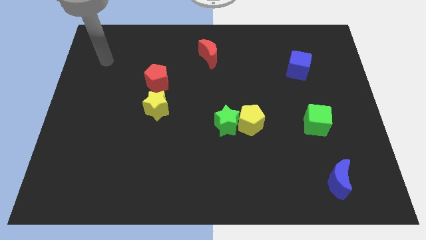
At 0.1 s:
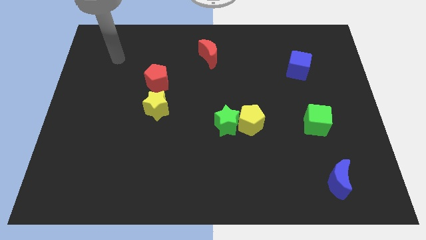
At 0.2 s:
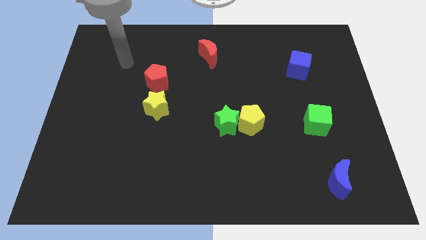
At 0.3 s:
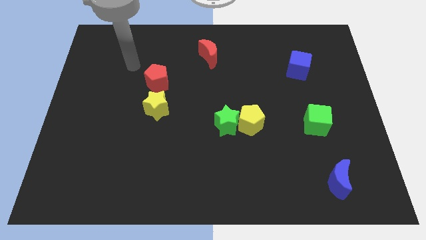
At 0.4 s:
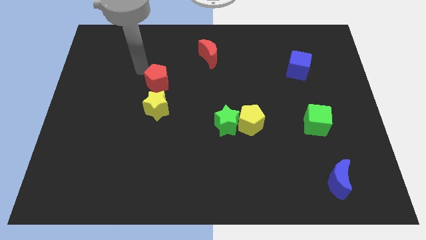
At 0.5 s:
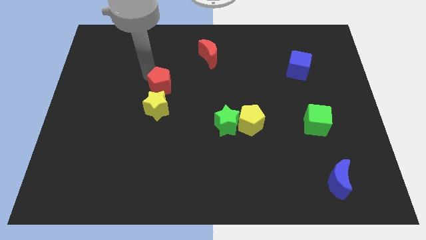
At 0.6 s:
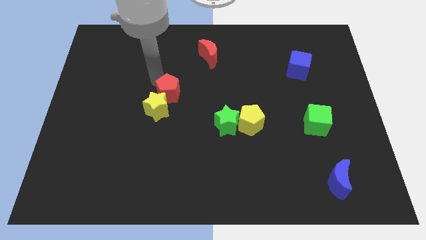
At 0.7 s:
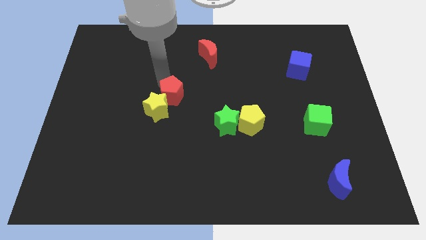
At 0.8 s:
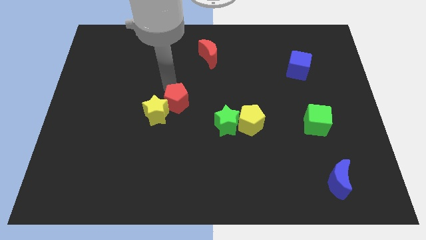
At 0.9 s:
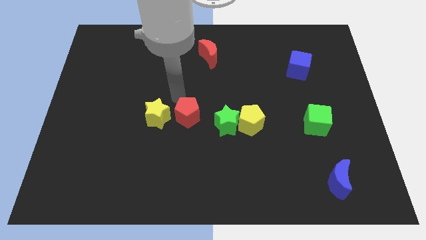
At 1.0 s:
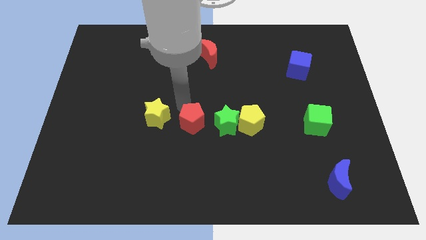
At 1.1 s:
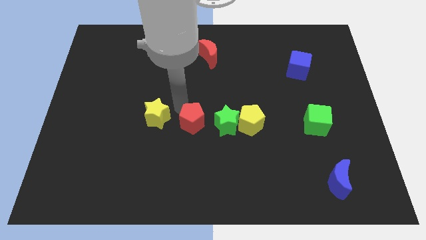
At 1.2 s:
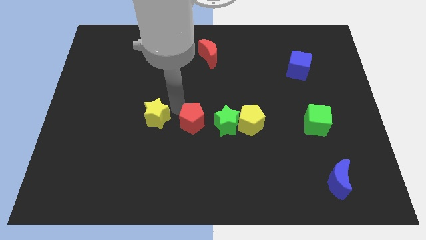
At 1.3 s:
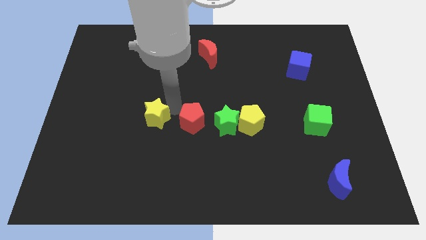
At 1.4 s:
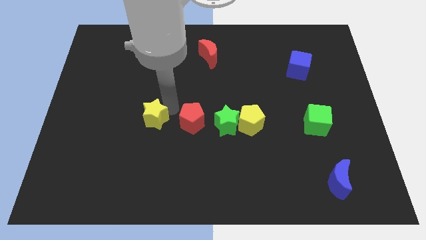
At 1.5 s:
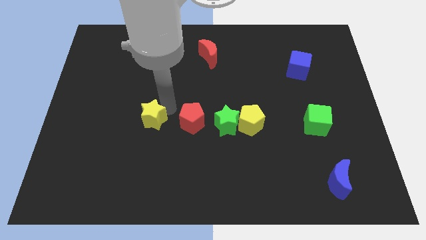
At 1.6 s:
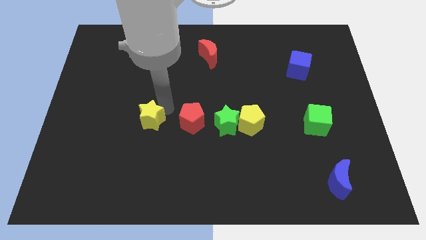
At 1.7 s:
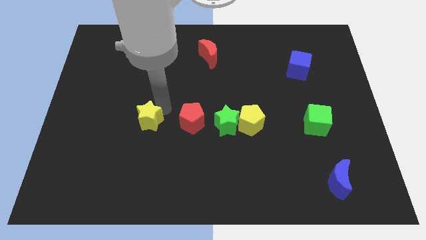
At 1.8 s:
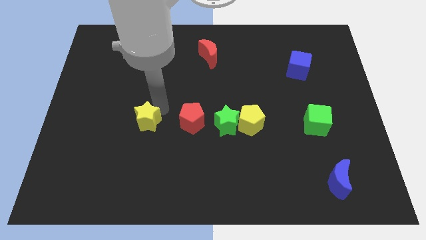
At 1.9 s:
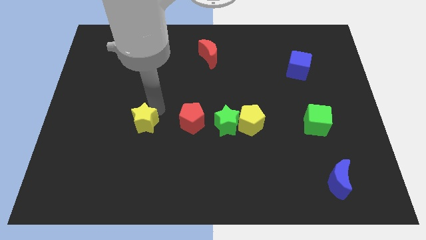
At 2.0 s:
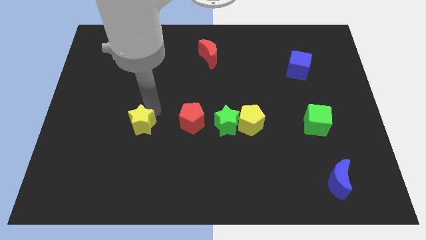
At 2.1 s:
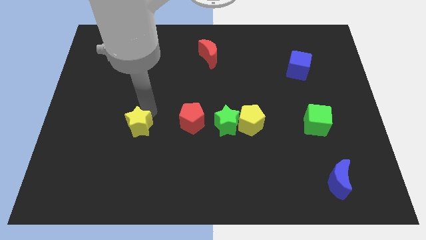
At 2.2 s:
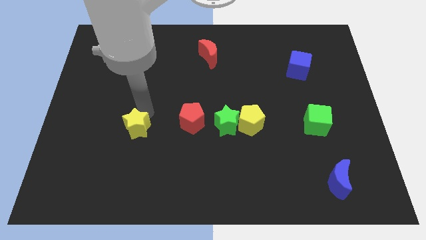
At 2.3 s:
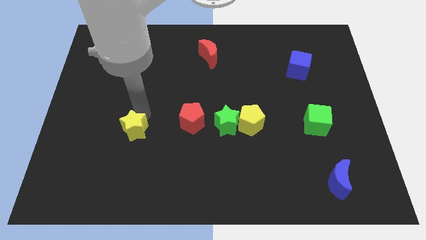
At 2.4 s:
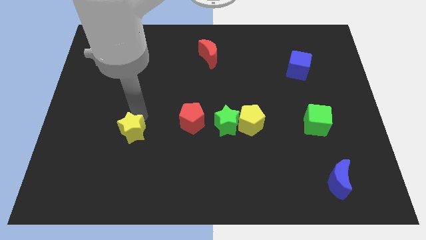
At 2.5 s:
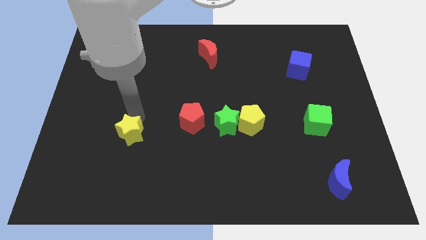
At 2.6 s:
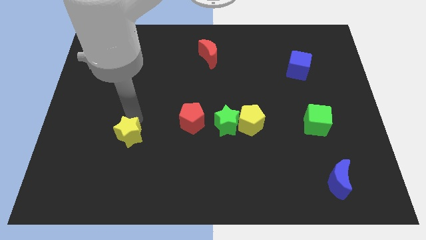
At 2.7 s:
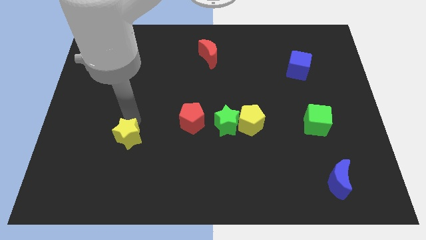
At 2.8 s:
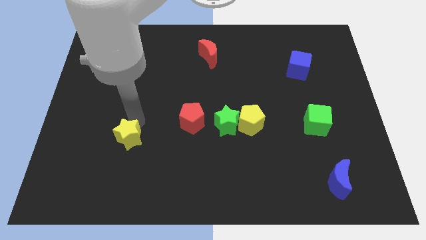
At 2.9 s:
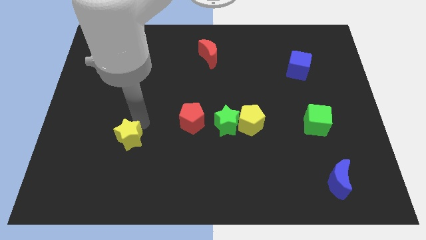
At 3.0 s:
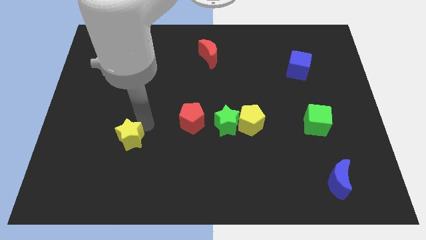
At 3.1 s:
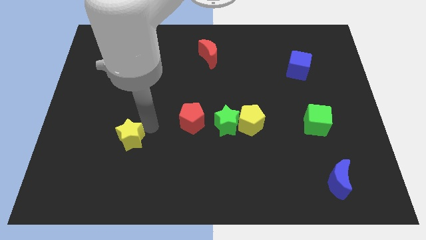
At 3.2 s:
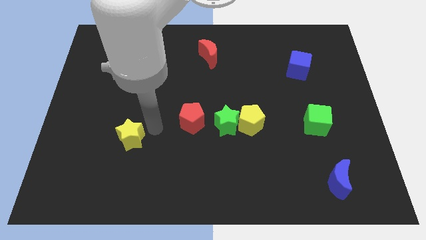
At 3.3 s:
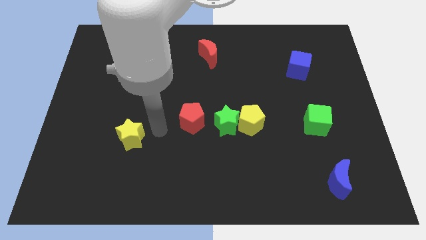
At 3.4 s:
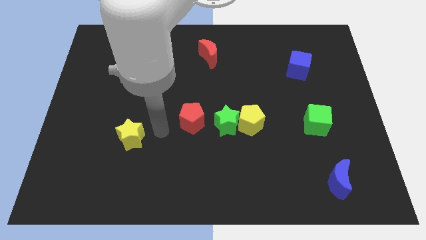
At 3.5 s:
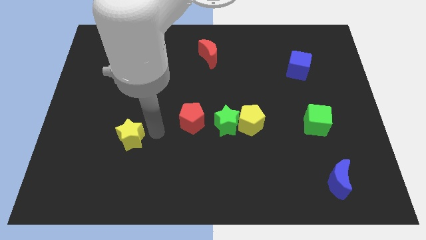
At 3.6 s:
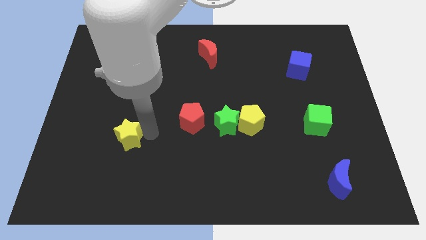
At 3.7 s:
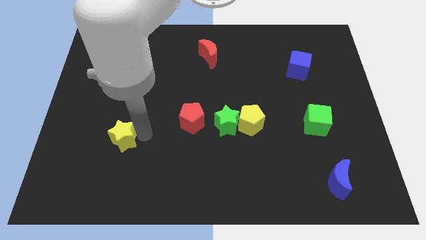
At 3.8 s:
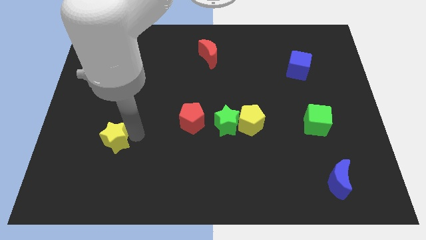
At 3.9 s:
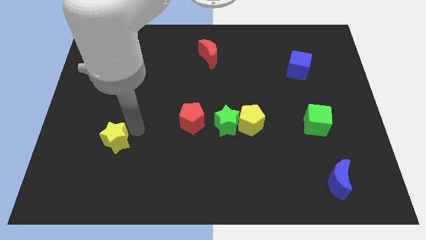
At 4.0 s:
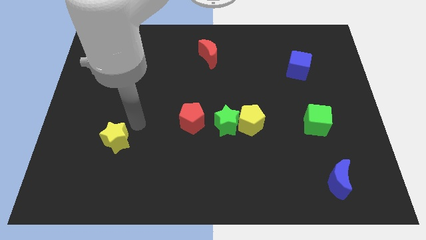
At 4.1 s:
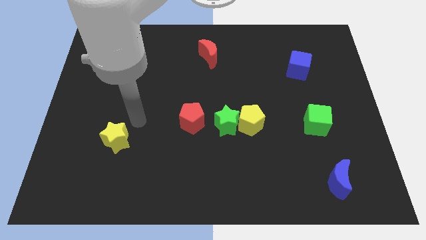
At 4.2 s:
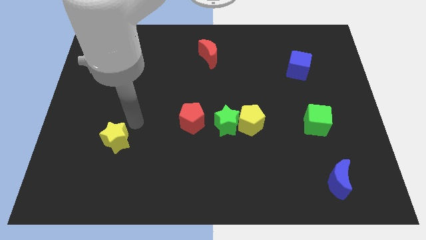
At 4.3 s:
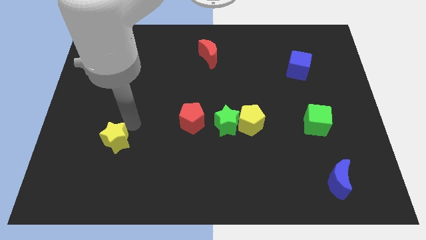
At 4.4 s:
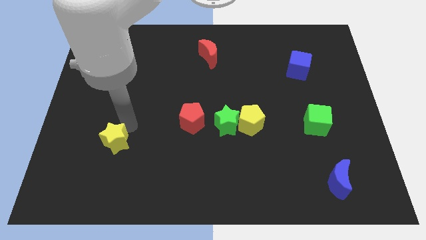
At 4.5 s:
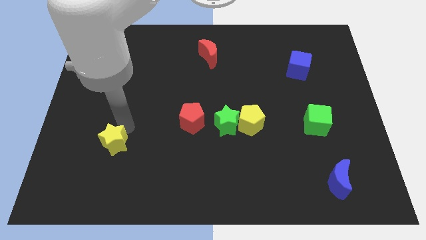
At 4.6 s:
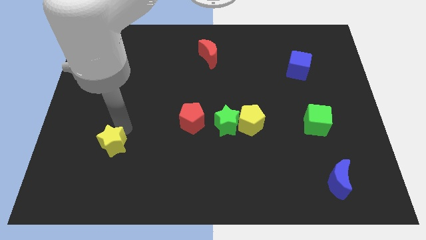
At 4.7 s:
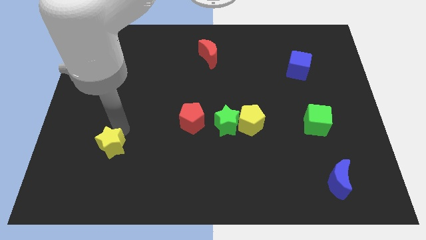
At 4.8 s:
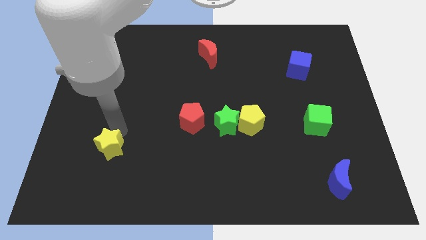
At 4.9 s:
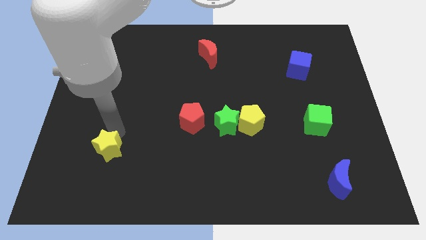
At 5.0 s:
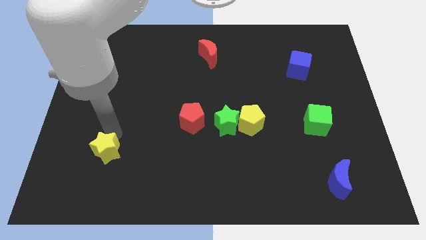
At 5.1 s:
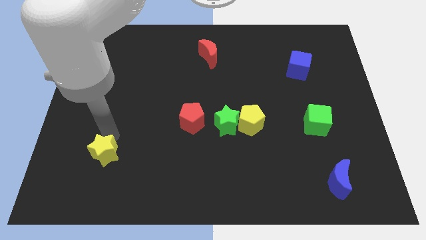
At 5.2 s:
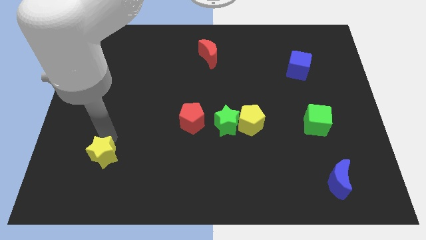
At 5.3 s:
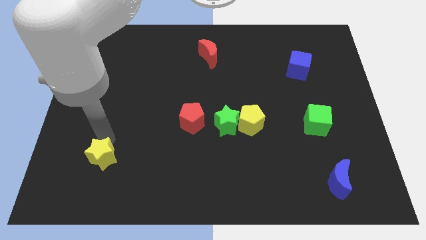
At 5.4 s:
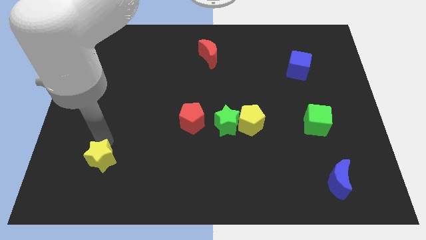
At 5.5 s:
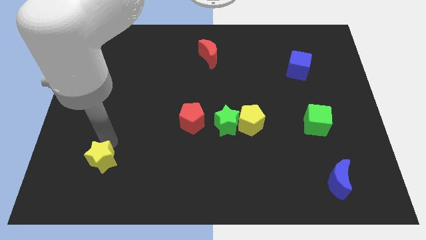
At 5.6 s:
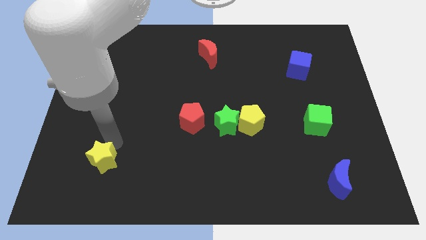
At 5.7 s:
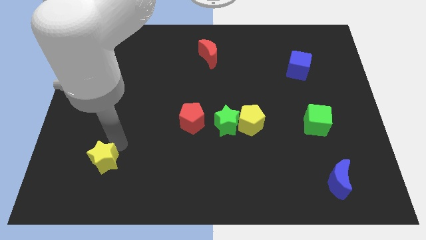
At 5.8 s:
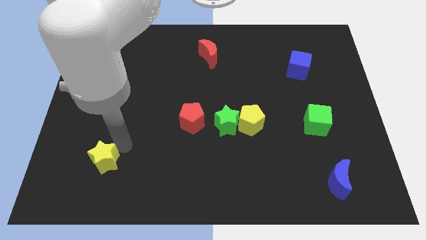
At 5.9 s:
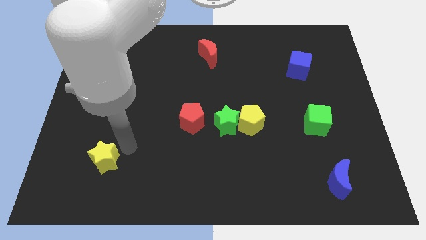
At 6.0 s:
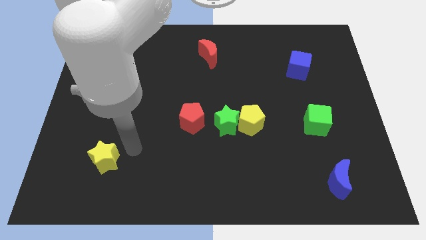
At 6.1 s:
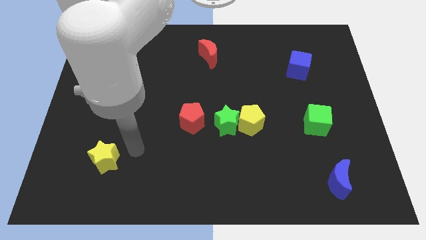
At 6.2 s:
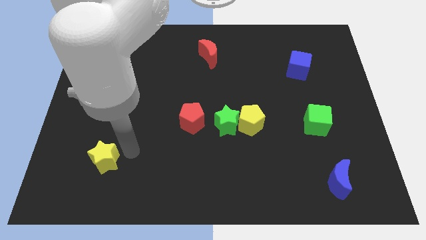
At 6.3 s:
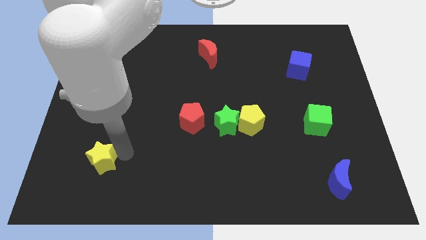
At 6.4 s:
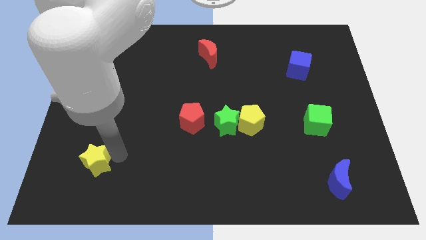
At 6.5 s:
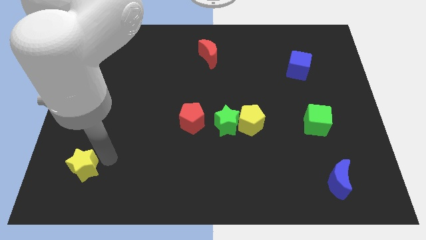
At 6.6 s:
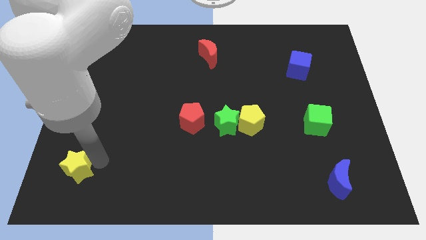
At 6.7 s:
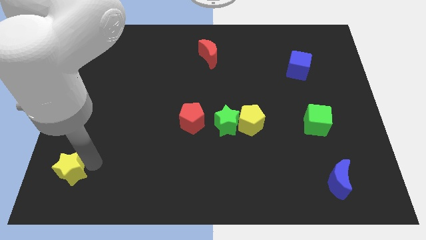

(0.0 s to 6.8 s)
push the yellow star to the bottom left of the board
